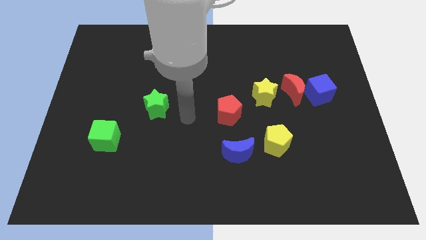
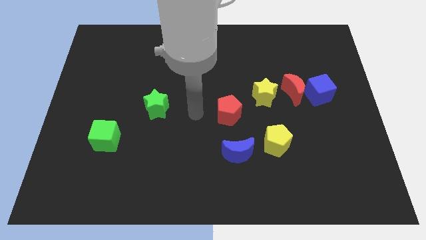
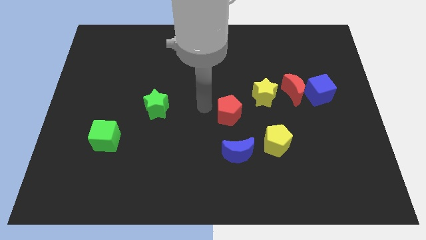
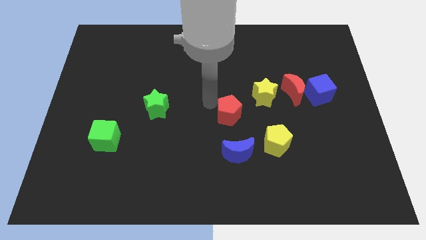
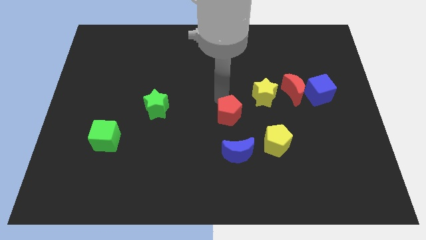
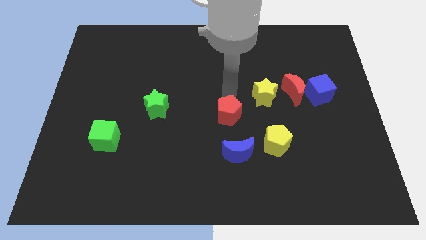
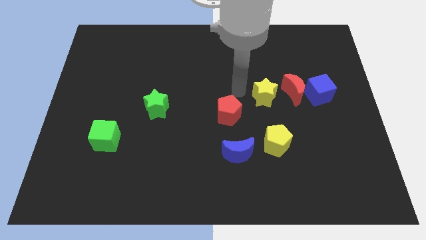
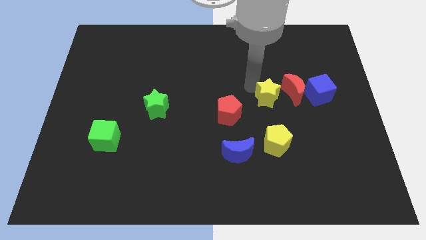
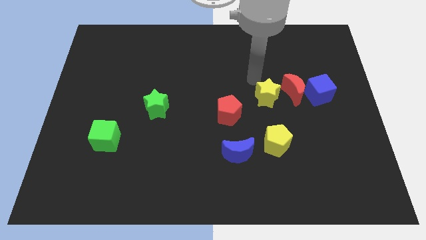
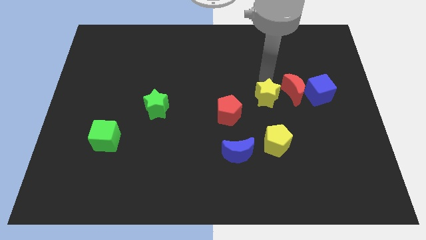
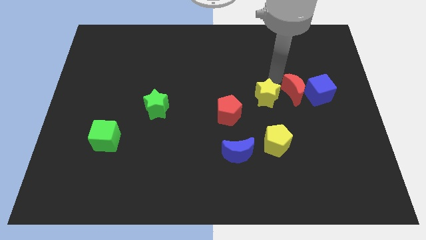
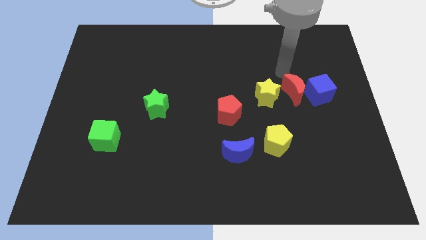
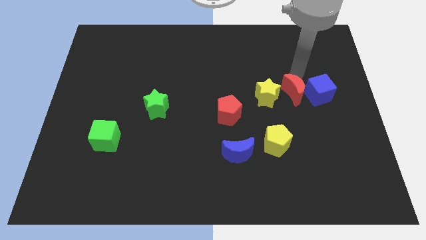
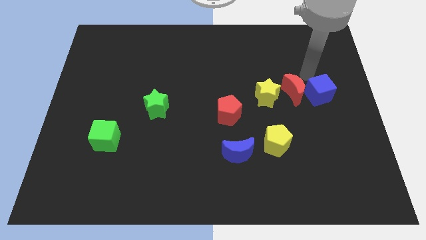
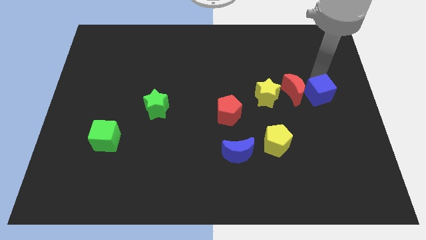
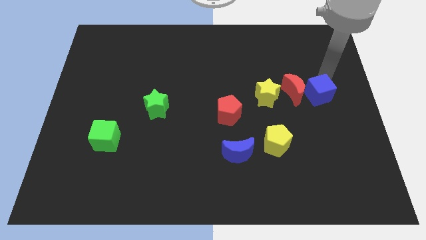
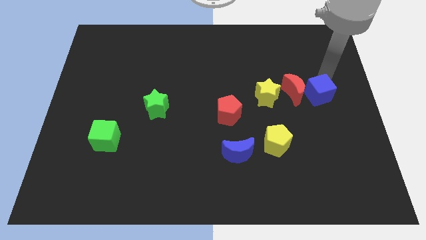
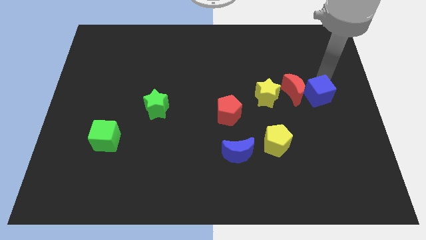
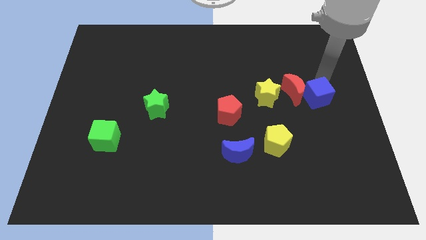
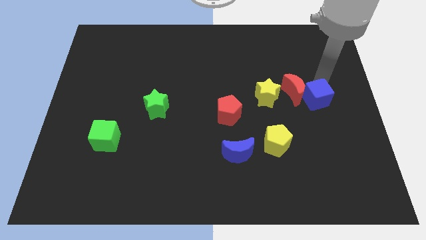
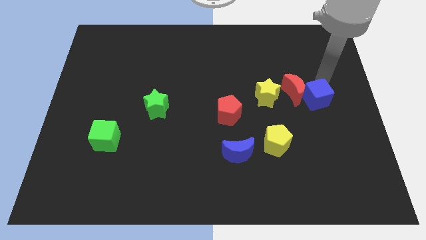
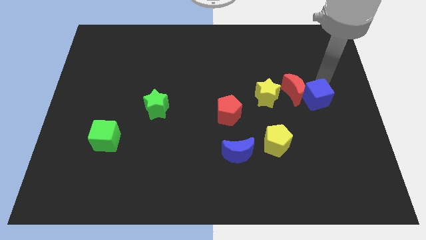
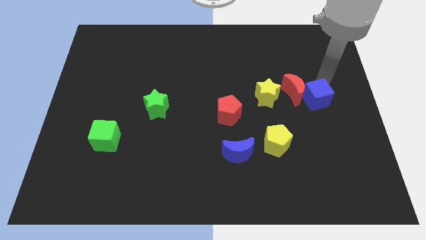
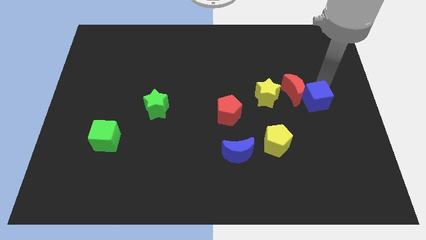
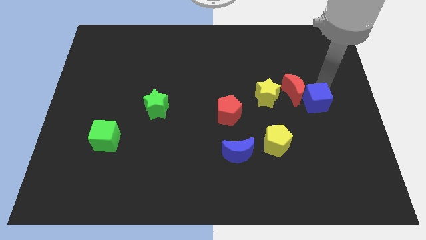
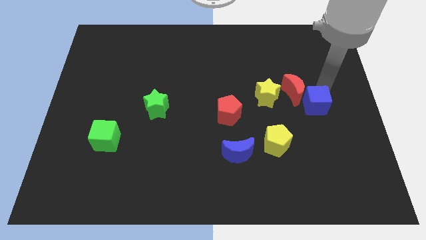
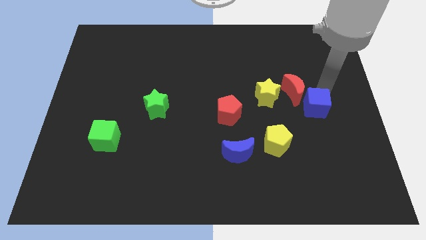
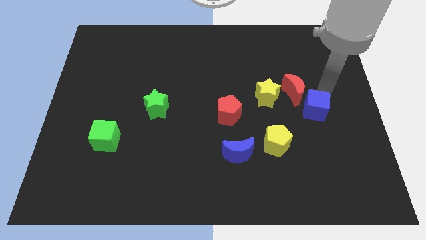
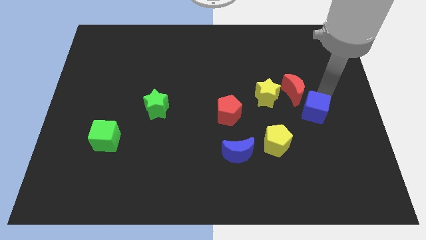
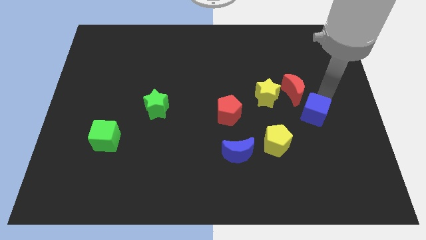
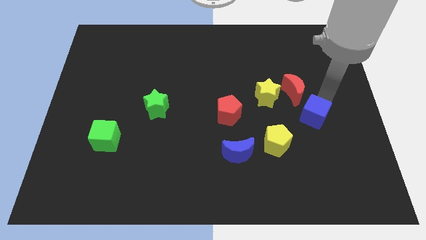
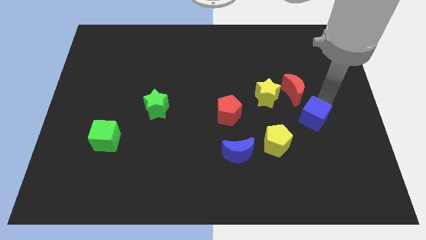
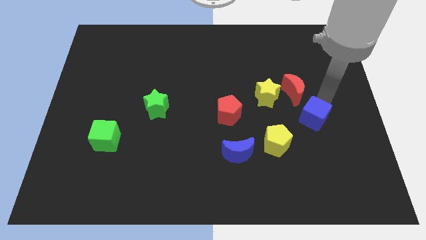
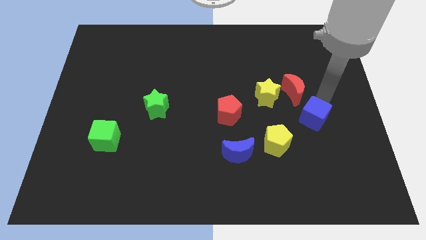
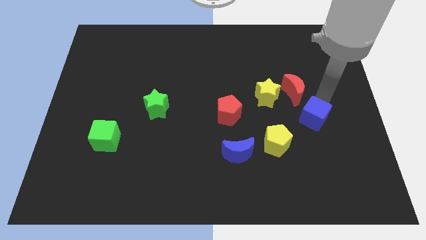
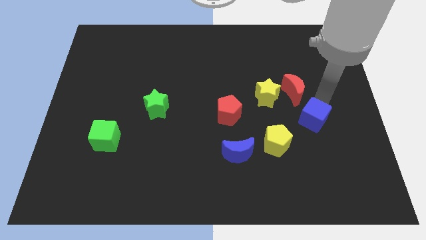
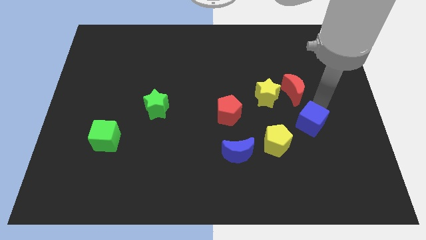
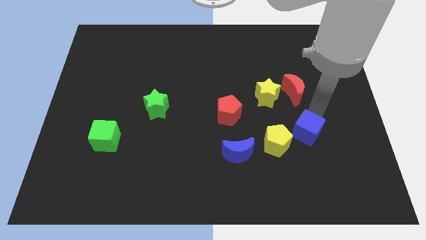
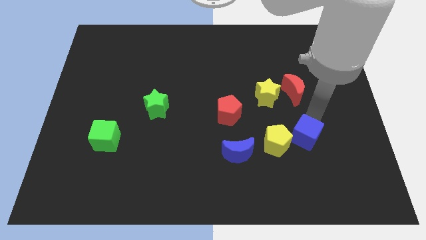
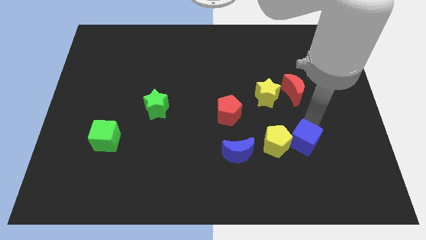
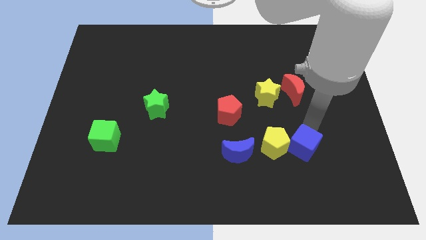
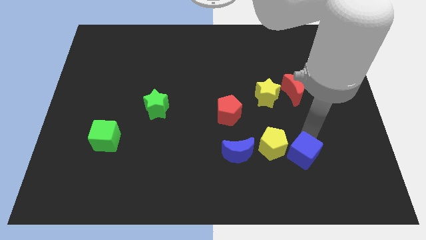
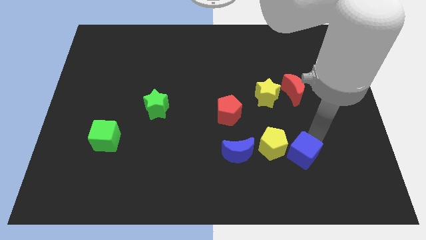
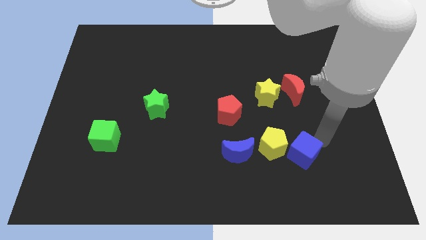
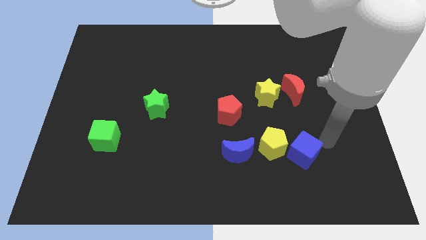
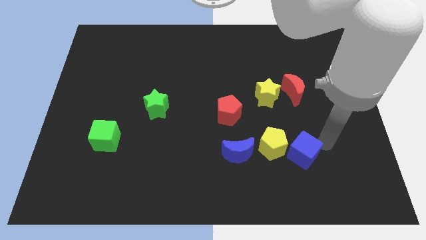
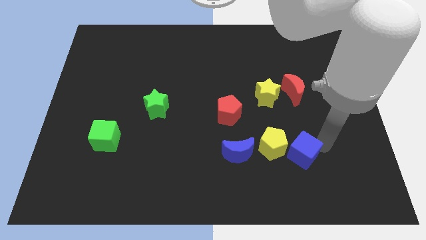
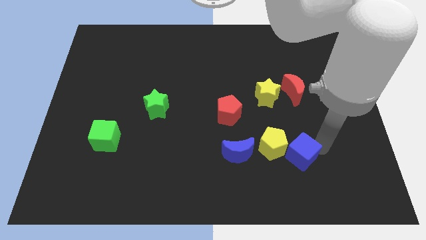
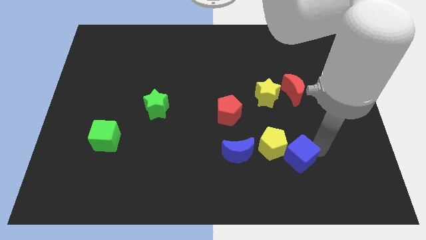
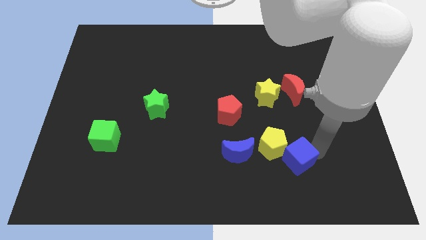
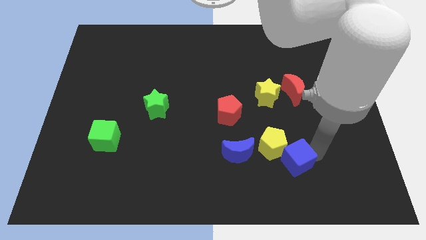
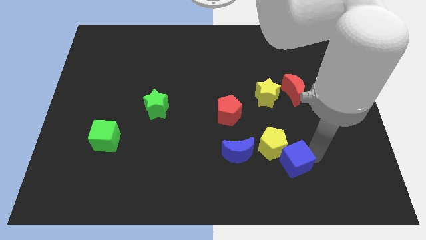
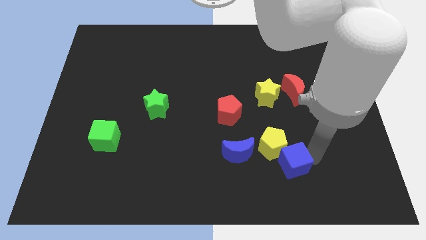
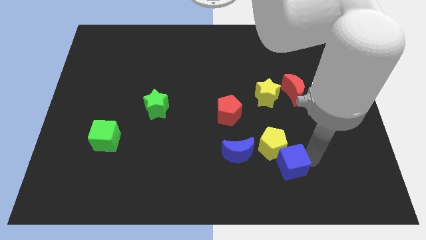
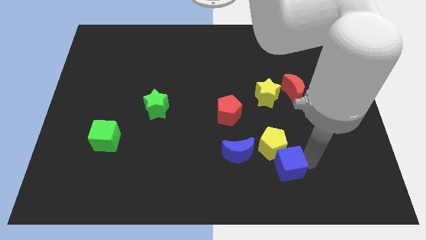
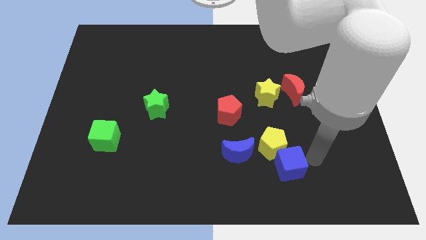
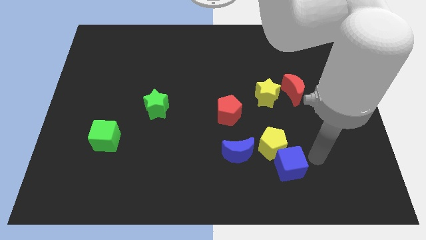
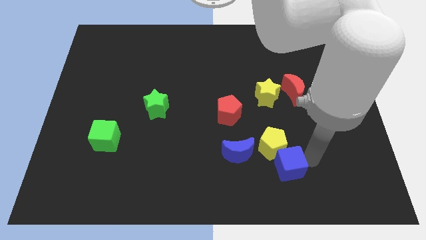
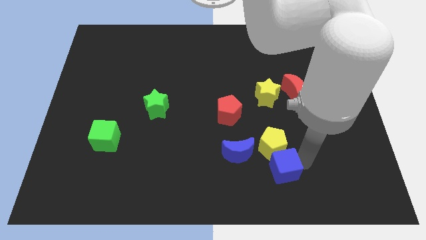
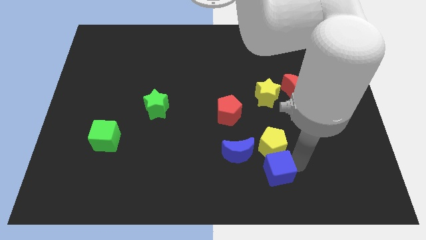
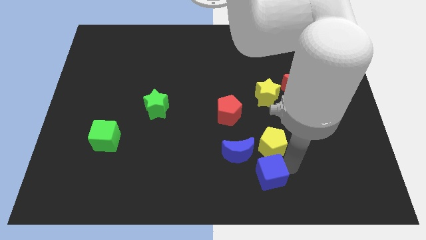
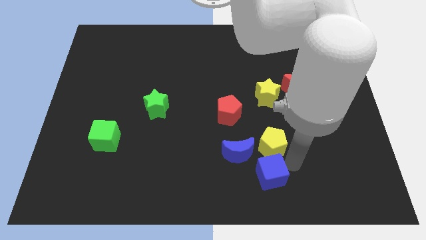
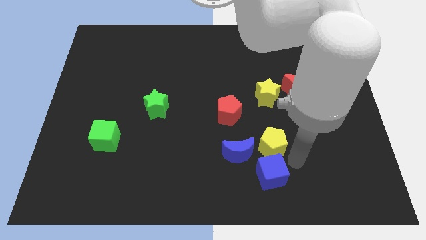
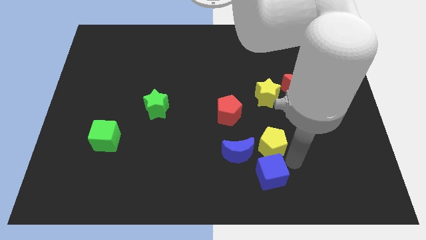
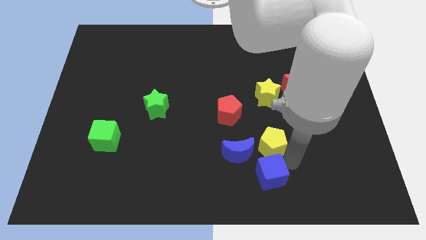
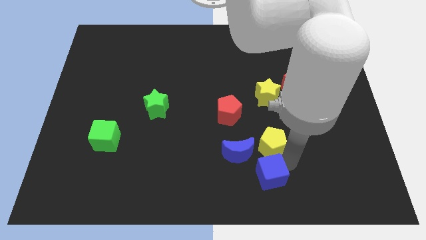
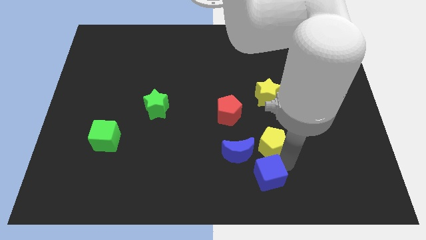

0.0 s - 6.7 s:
put the blue cube to the bottom side
